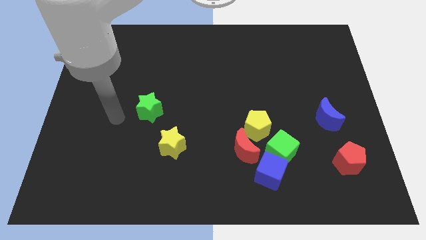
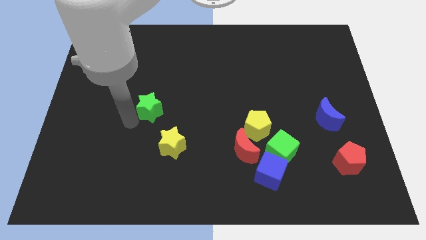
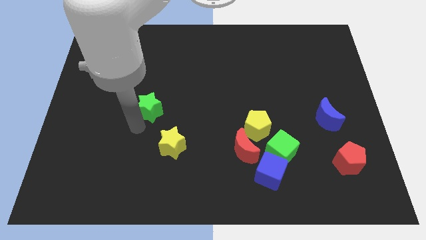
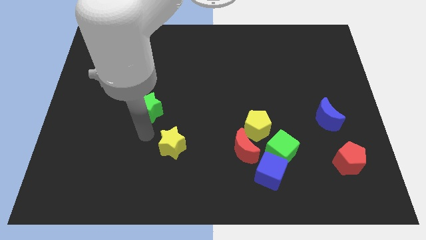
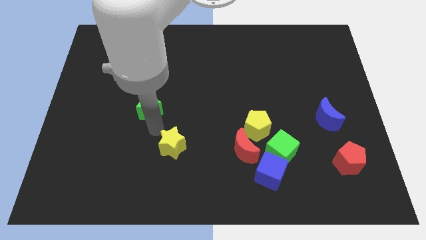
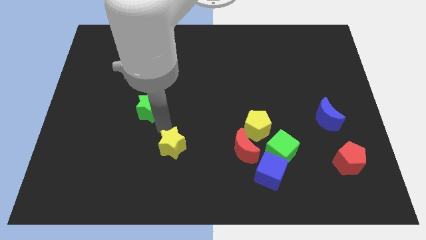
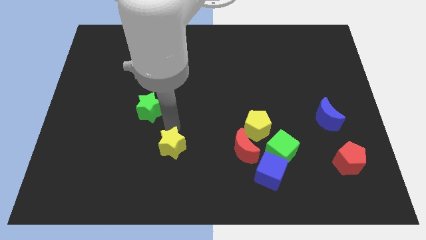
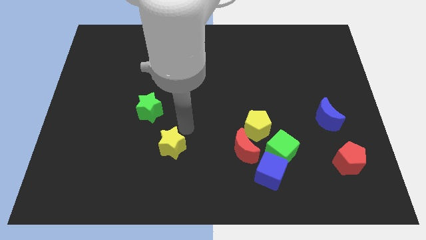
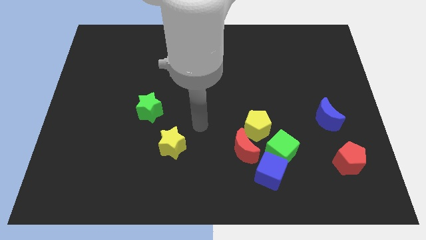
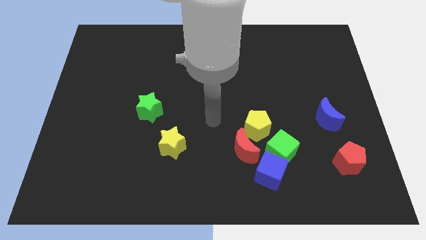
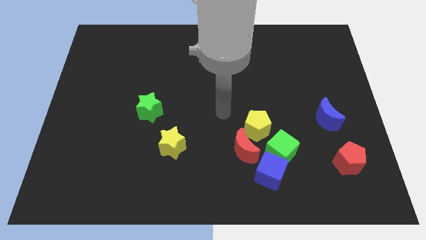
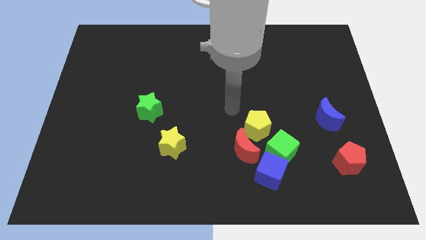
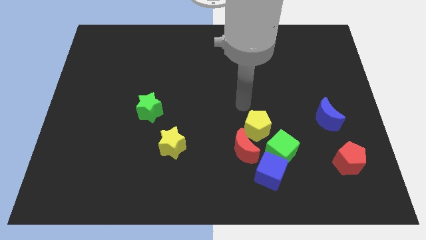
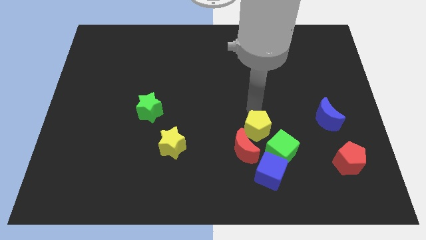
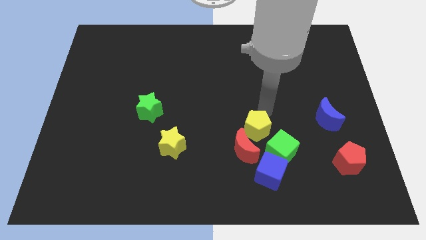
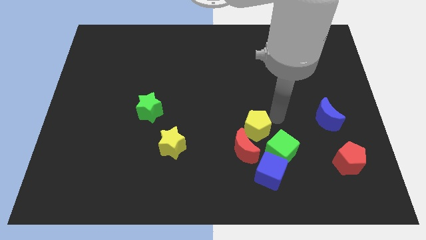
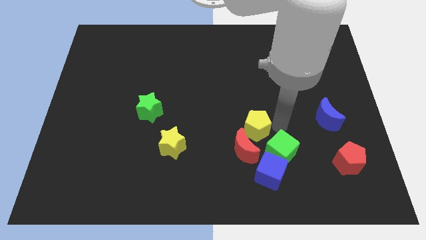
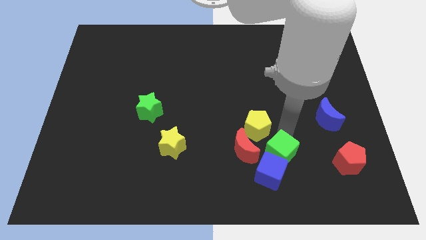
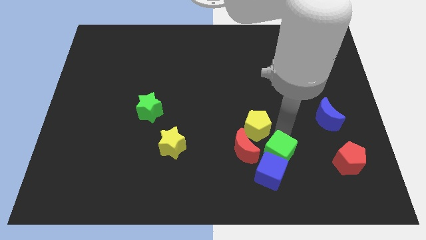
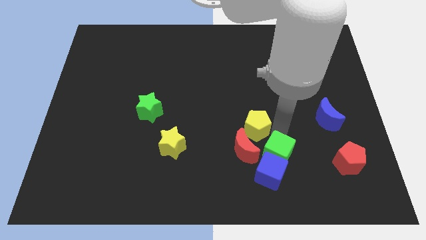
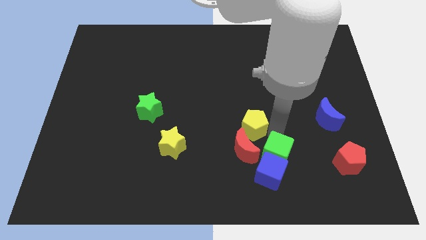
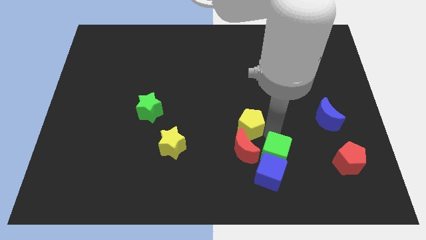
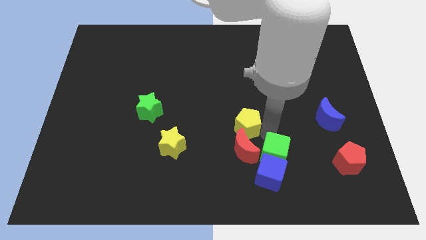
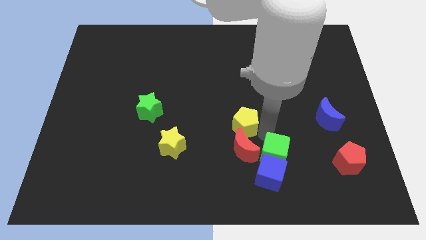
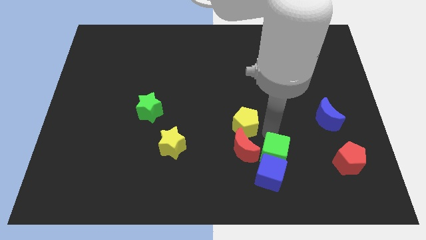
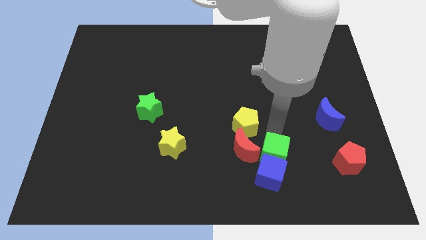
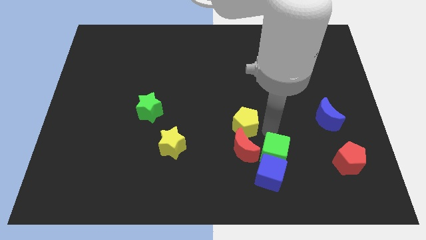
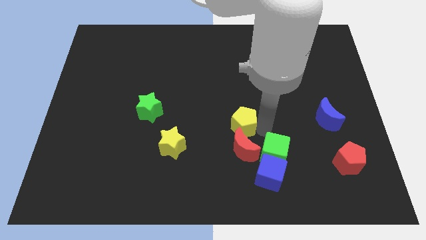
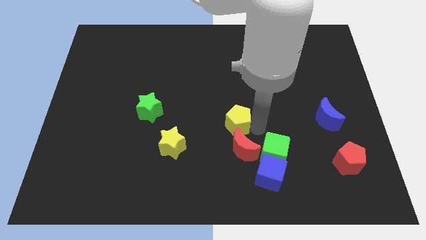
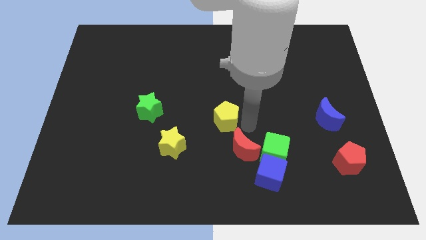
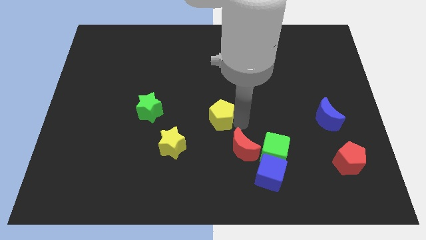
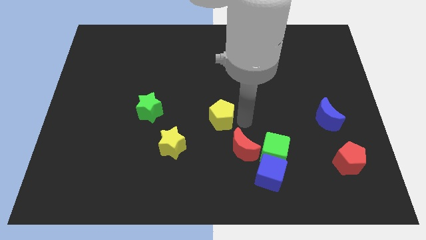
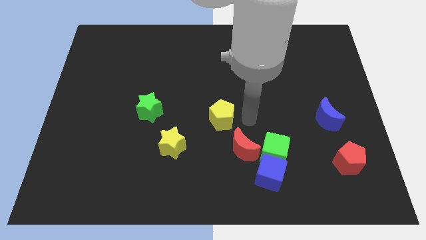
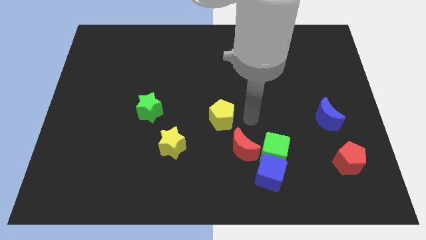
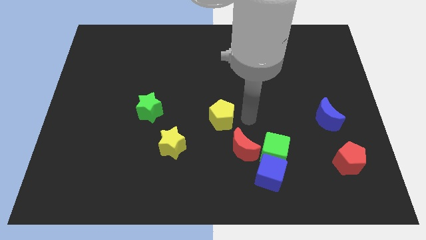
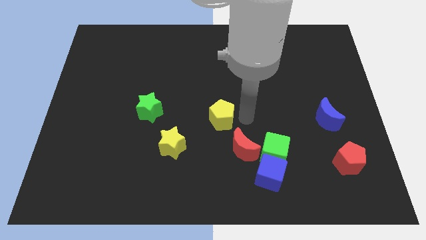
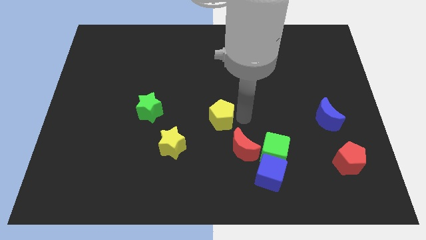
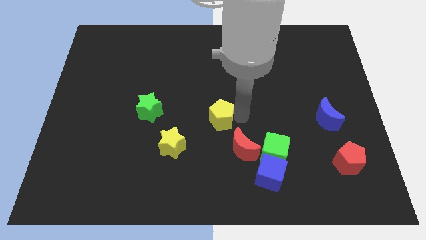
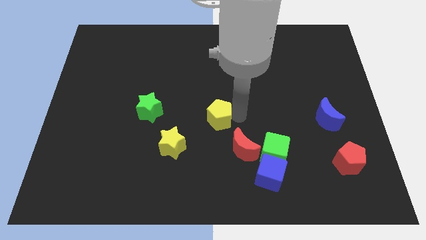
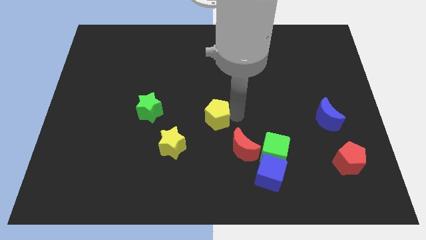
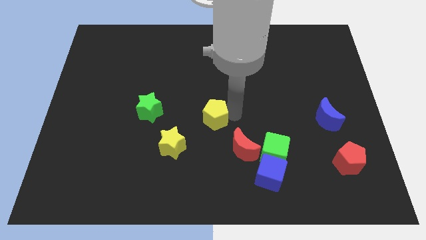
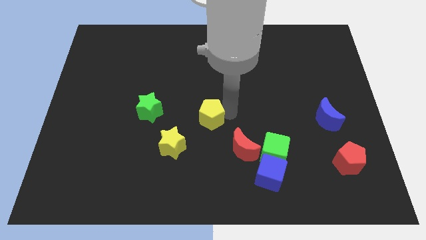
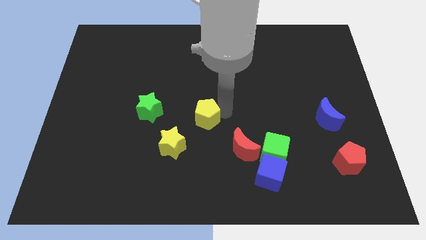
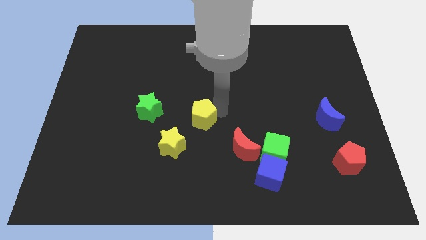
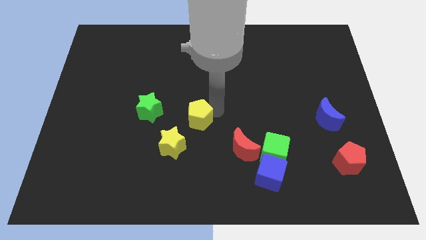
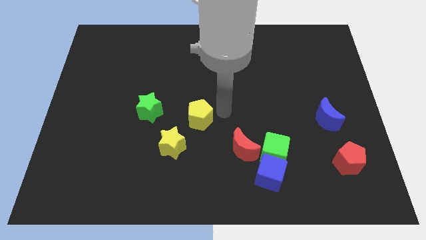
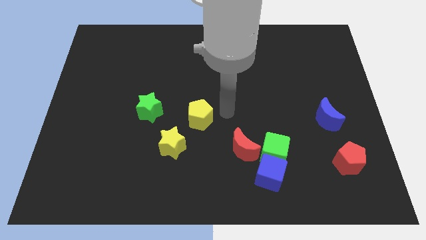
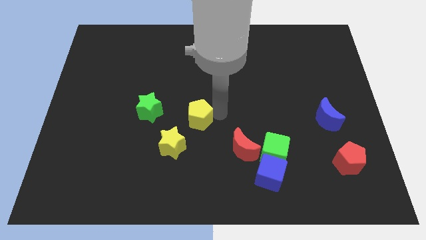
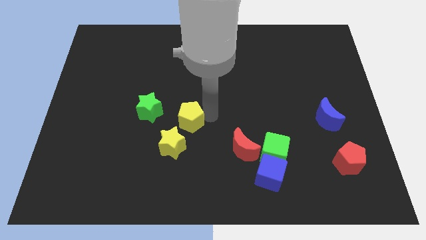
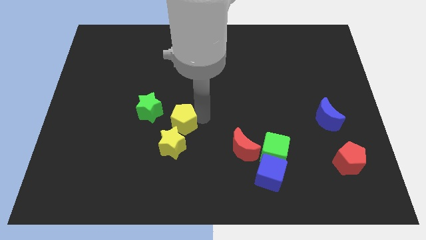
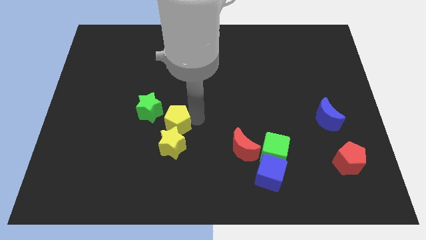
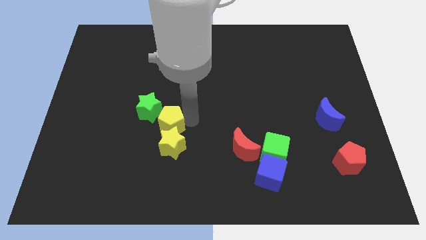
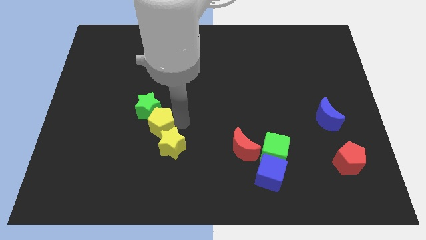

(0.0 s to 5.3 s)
move the yellow pentagon left

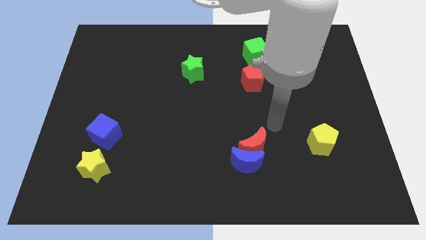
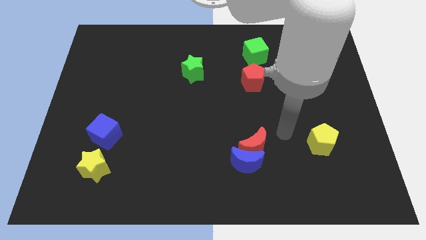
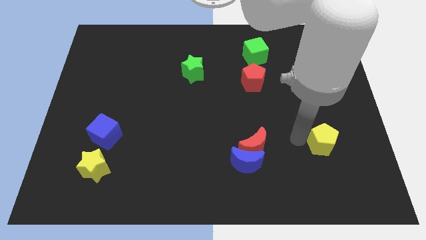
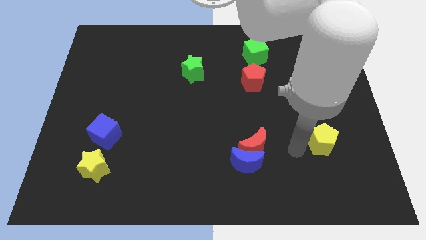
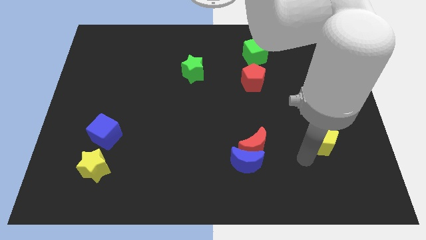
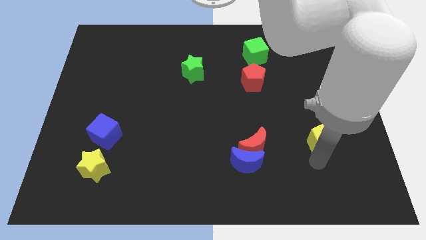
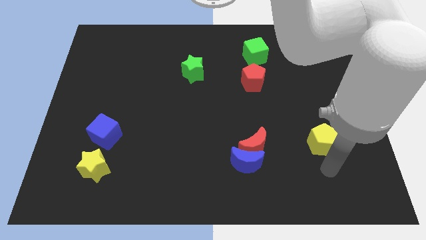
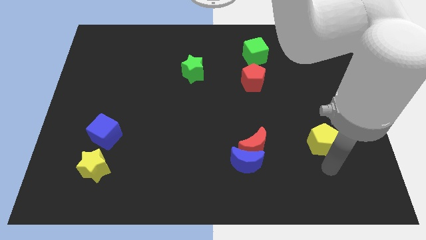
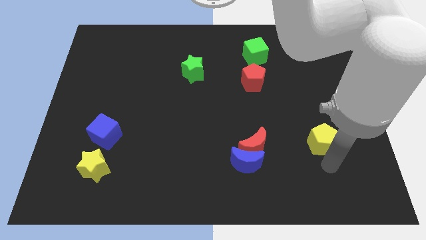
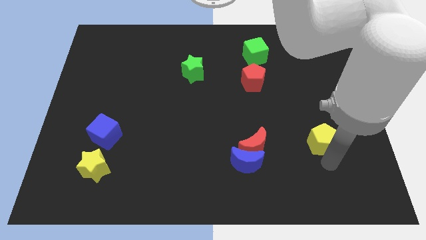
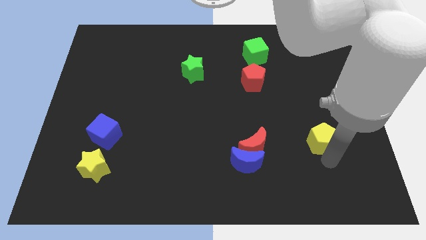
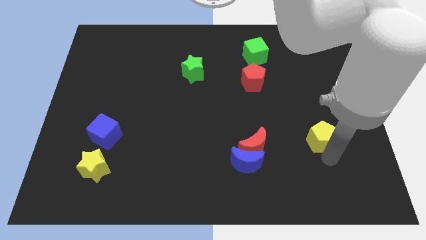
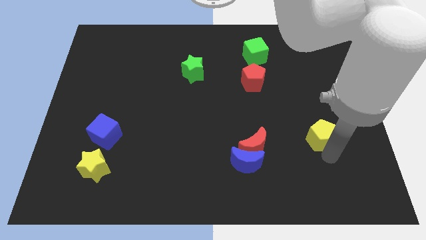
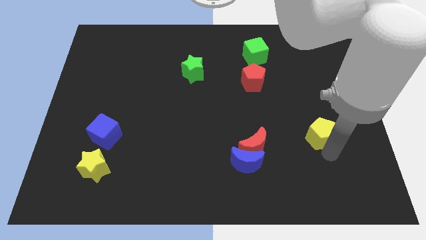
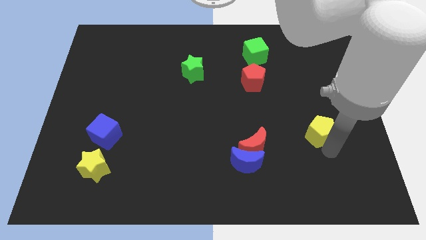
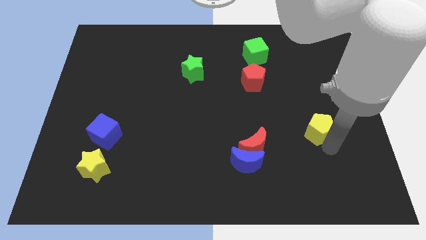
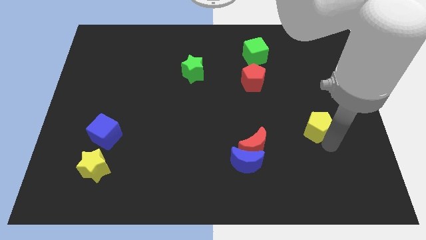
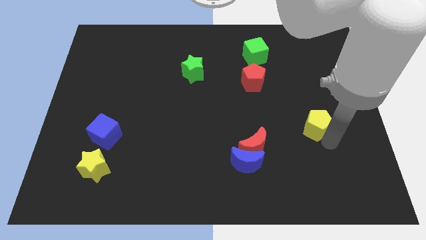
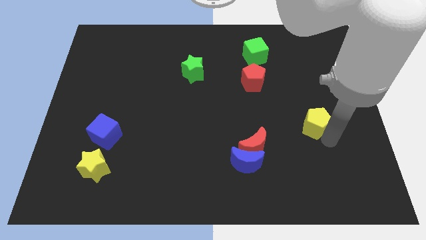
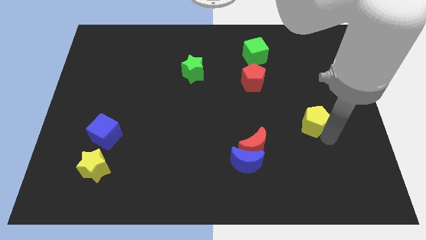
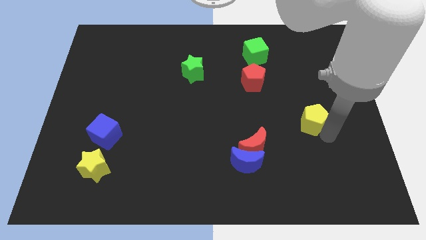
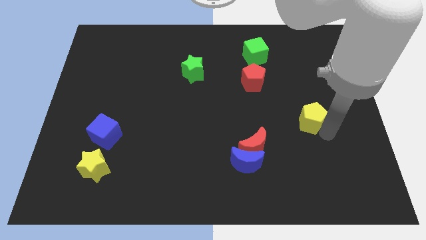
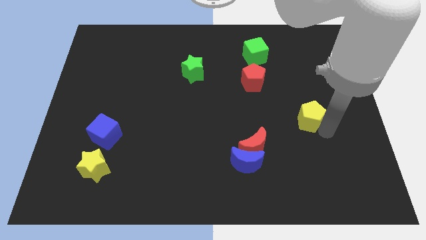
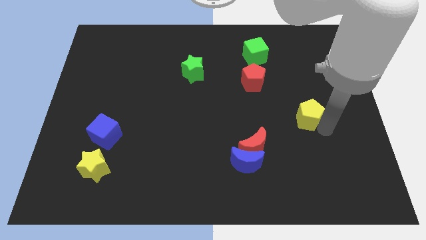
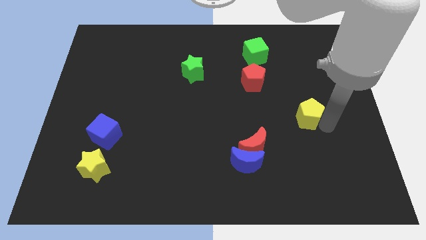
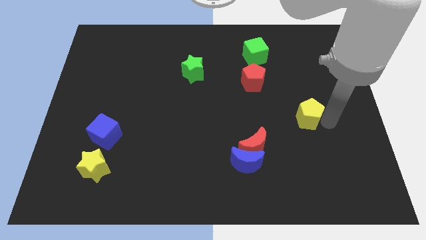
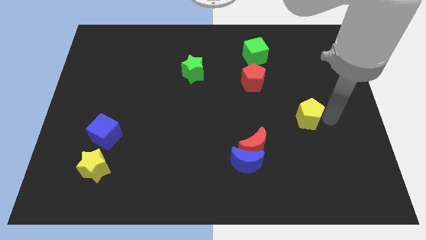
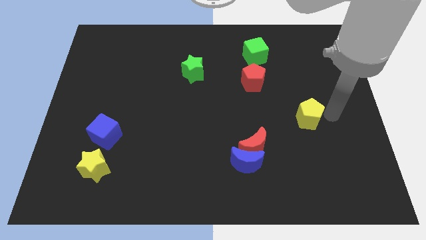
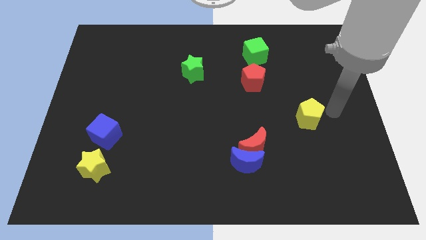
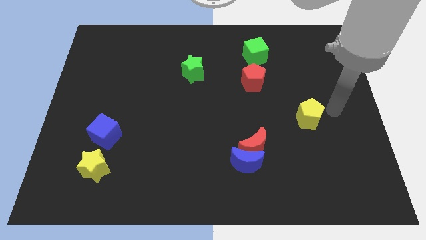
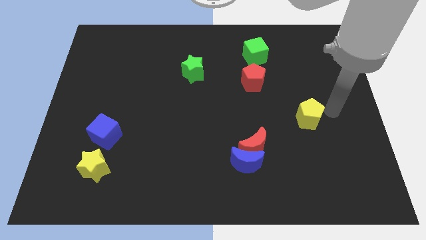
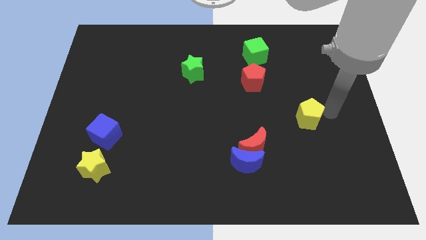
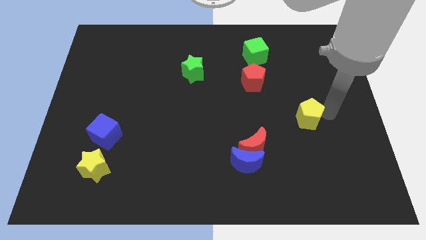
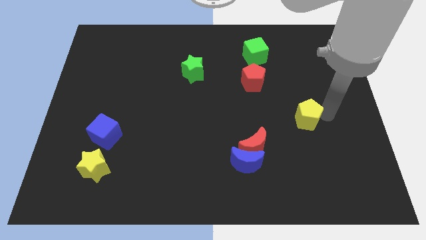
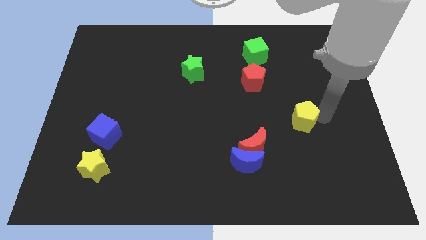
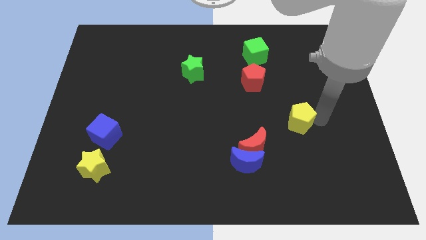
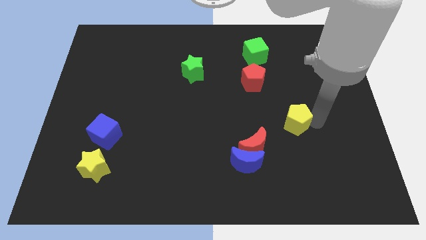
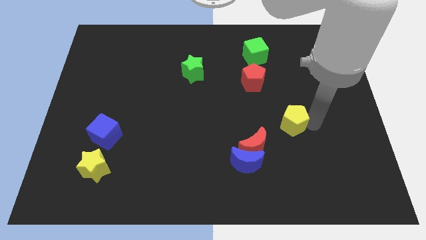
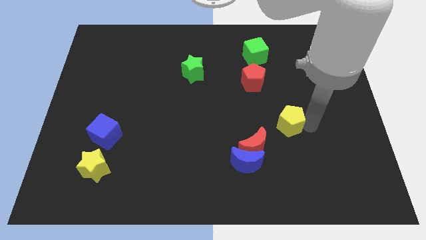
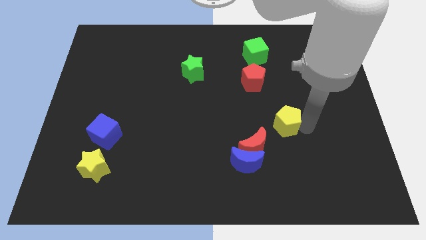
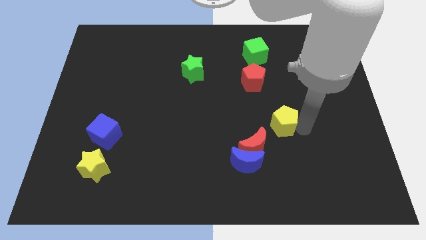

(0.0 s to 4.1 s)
move the yellow pentagon a bit to the left
